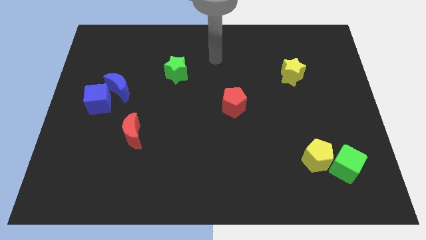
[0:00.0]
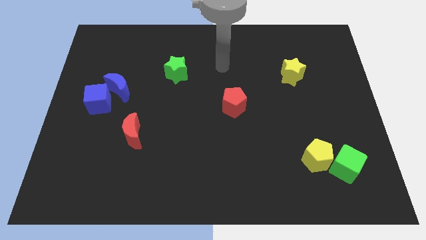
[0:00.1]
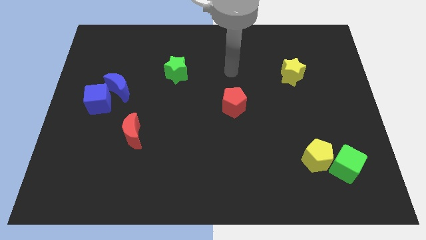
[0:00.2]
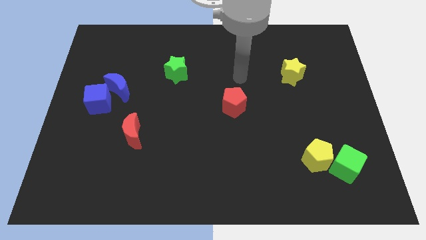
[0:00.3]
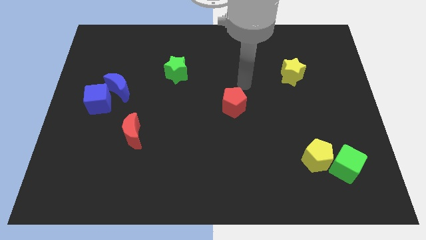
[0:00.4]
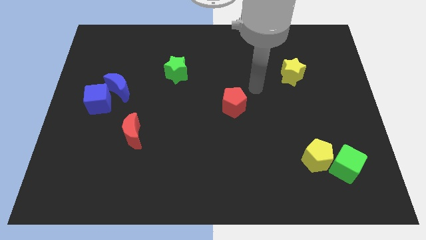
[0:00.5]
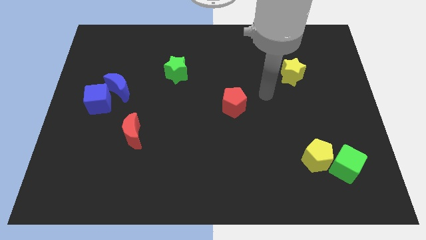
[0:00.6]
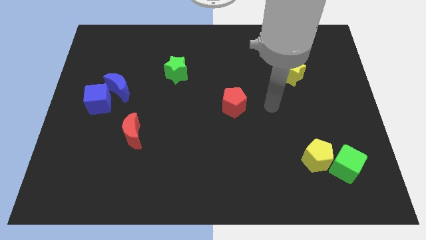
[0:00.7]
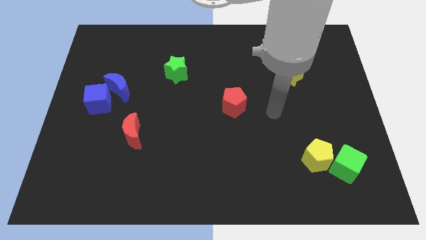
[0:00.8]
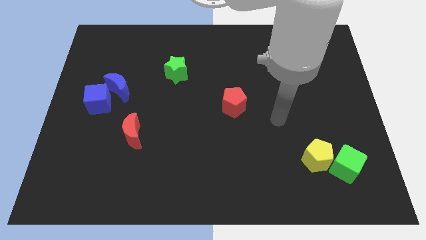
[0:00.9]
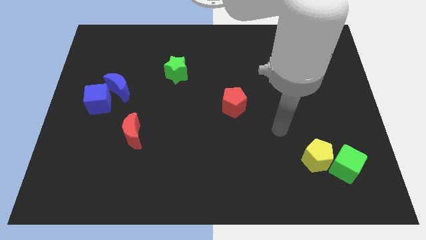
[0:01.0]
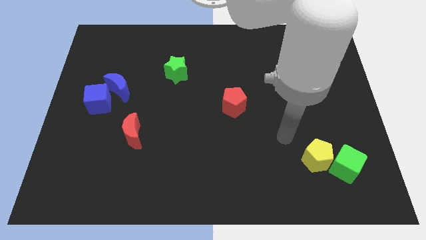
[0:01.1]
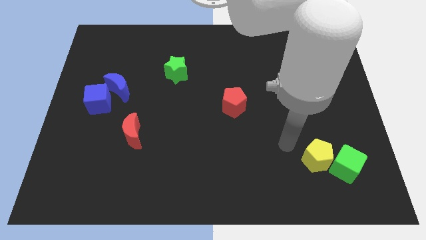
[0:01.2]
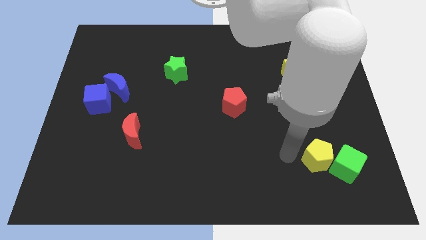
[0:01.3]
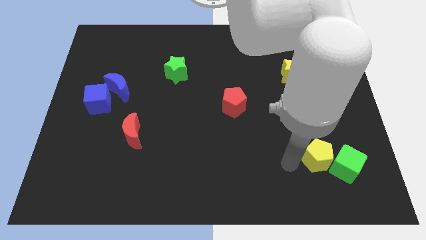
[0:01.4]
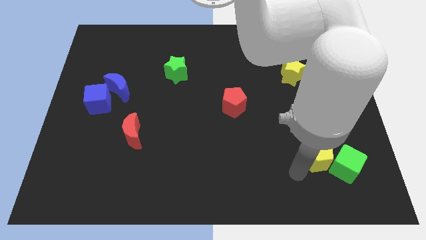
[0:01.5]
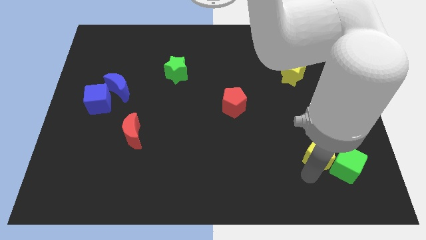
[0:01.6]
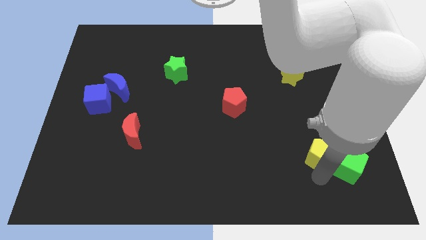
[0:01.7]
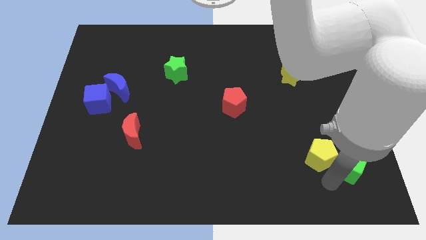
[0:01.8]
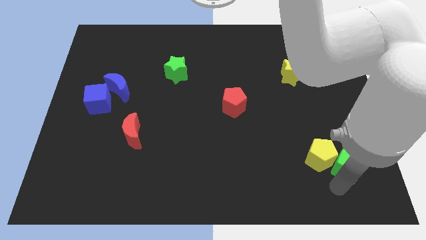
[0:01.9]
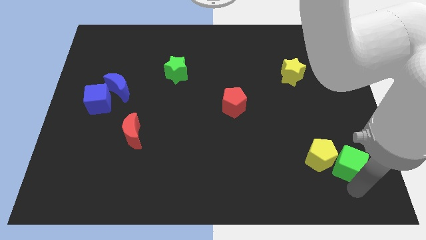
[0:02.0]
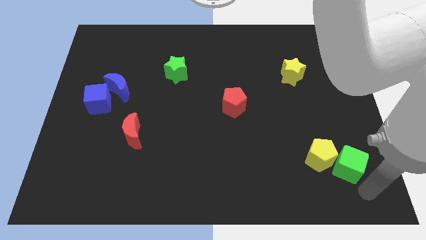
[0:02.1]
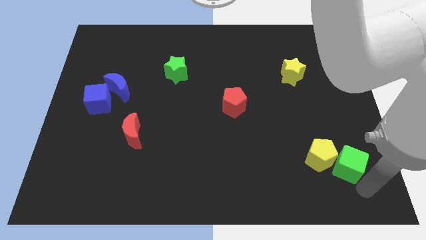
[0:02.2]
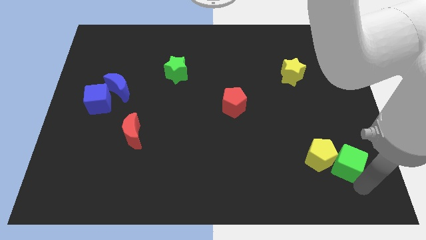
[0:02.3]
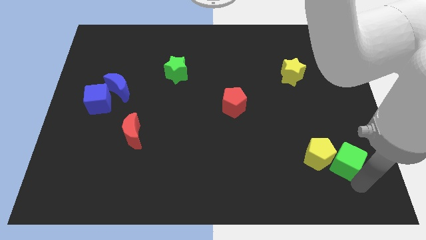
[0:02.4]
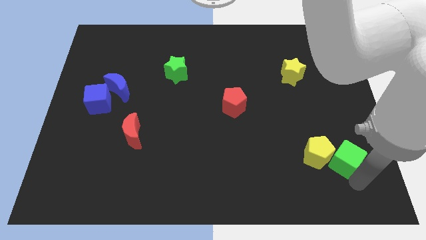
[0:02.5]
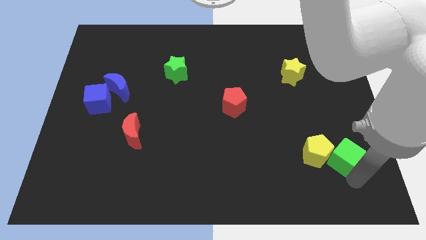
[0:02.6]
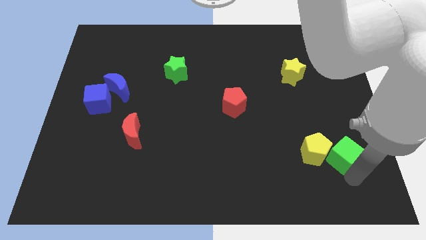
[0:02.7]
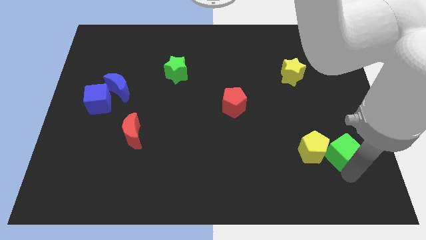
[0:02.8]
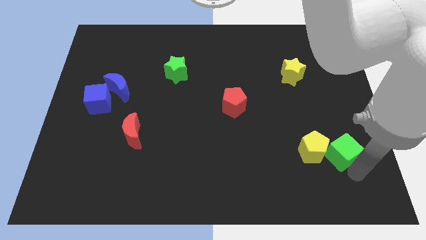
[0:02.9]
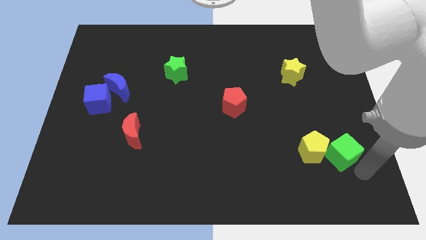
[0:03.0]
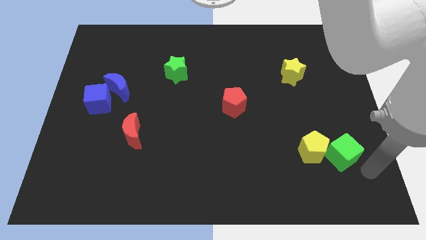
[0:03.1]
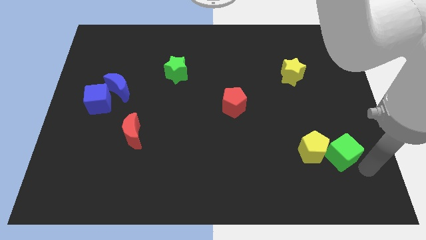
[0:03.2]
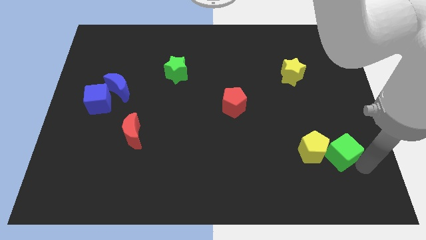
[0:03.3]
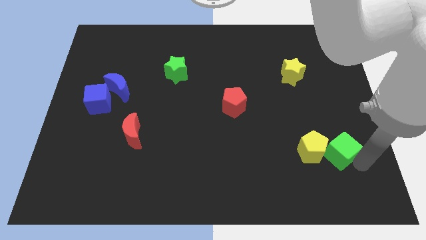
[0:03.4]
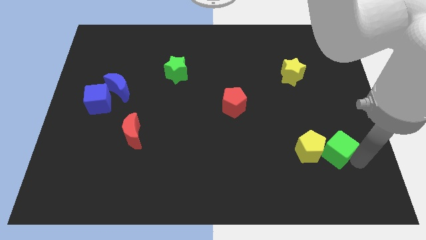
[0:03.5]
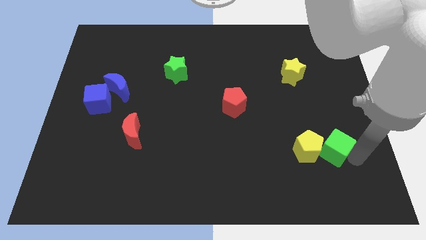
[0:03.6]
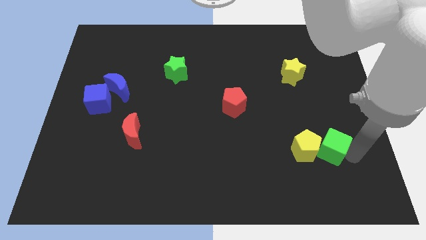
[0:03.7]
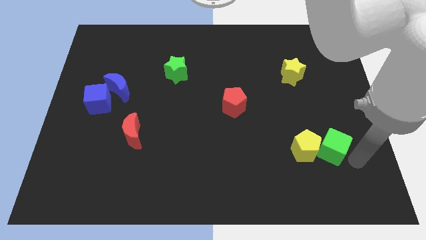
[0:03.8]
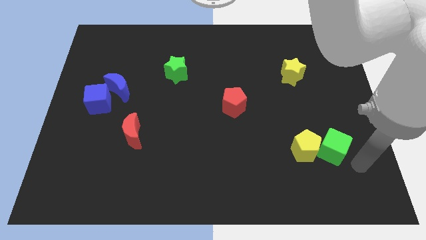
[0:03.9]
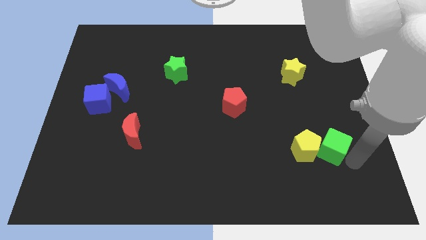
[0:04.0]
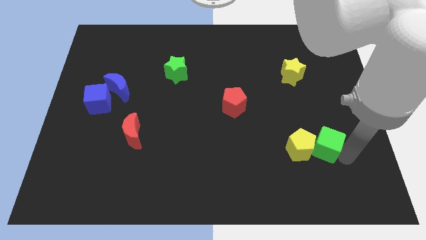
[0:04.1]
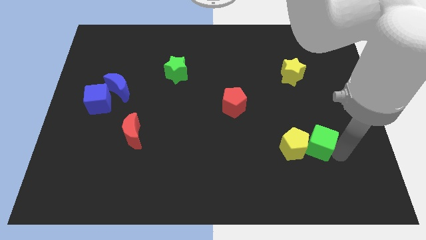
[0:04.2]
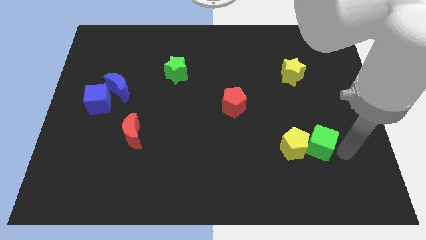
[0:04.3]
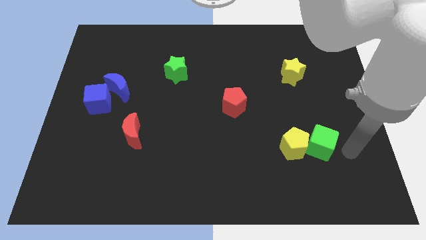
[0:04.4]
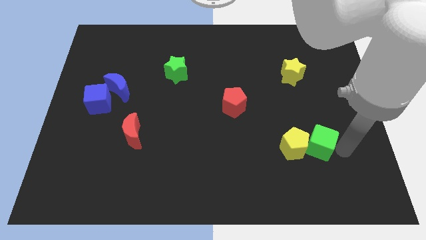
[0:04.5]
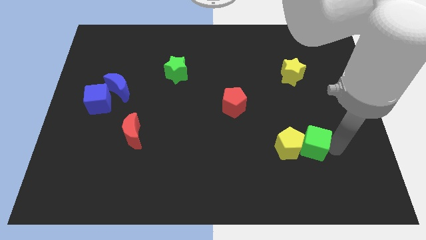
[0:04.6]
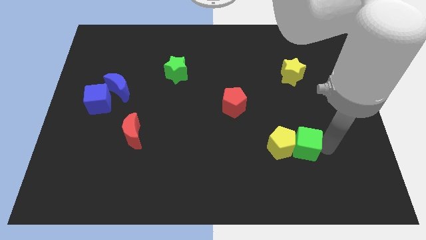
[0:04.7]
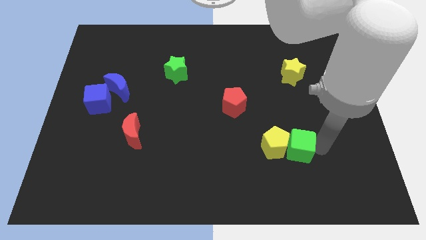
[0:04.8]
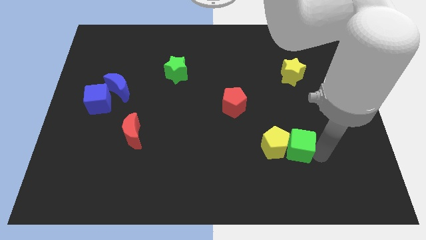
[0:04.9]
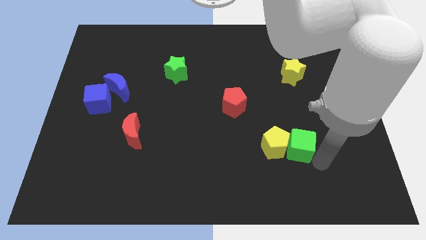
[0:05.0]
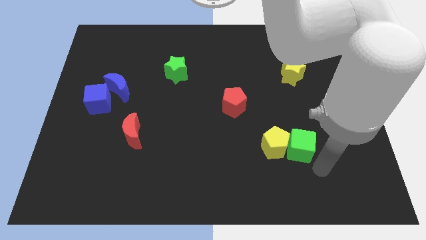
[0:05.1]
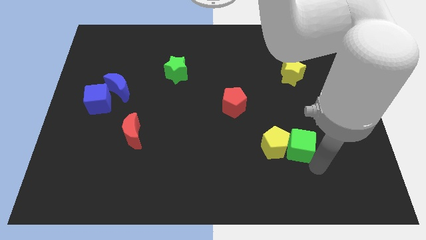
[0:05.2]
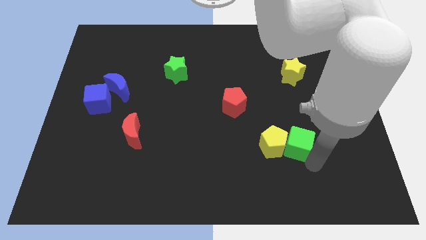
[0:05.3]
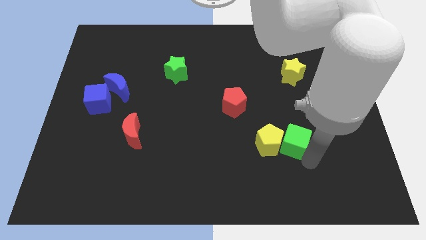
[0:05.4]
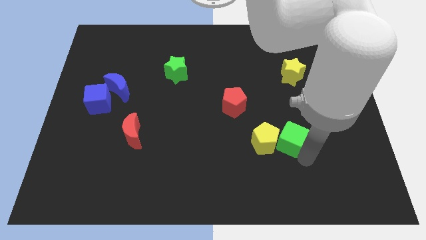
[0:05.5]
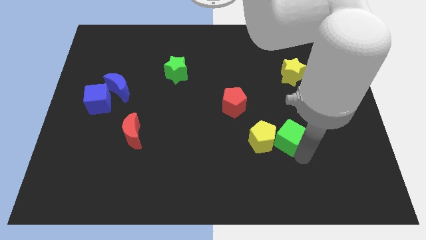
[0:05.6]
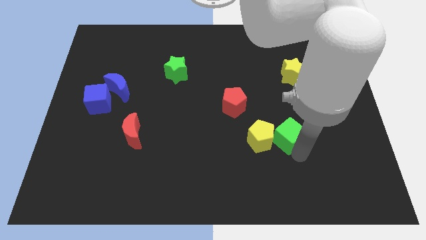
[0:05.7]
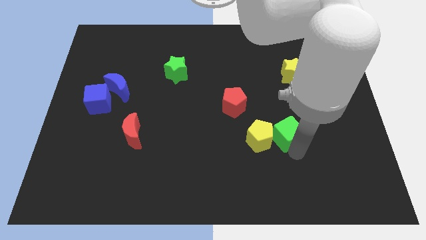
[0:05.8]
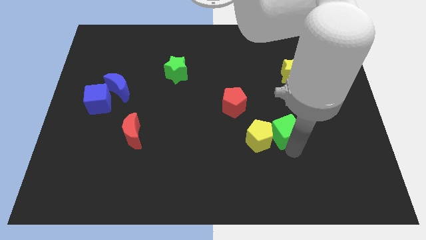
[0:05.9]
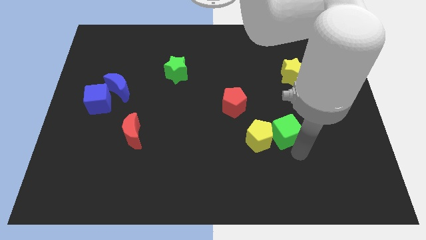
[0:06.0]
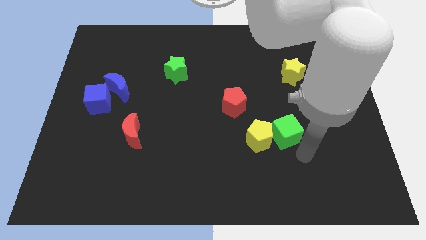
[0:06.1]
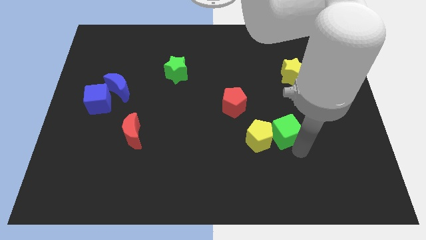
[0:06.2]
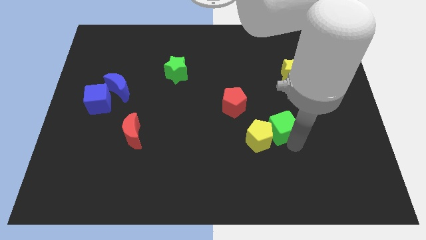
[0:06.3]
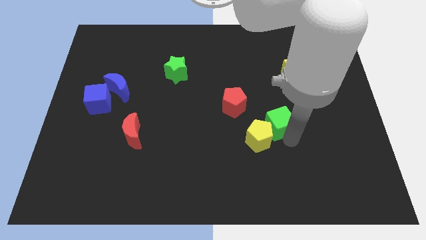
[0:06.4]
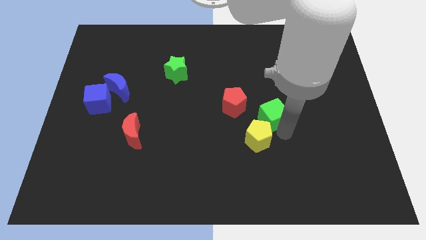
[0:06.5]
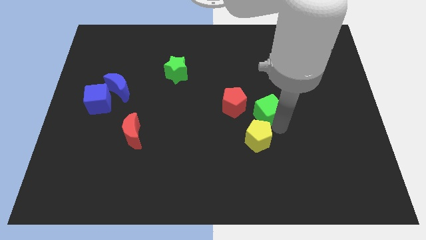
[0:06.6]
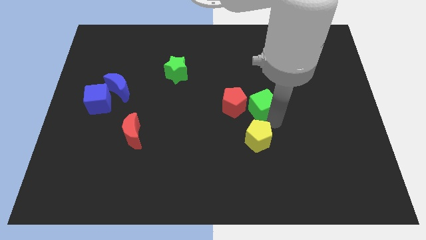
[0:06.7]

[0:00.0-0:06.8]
move the green cube to the middle of the board
